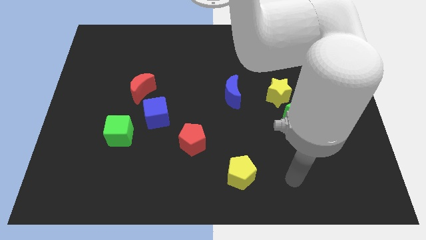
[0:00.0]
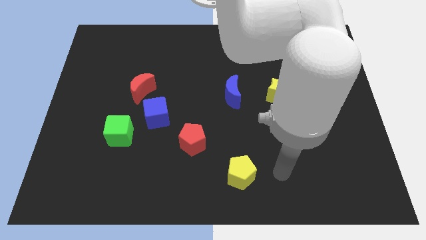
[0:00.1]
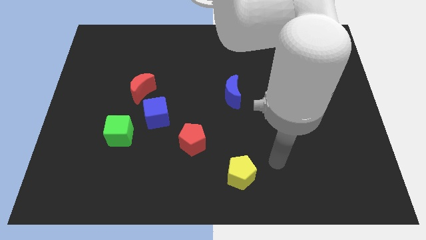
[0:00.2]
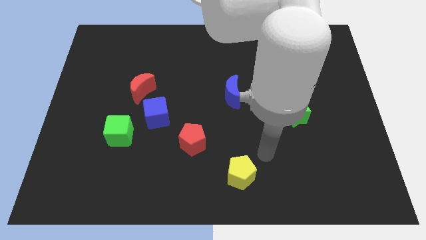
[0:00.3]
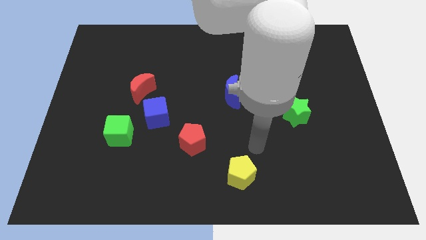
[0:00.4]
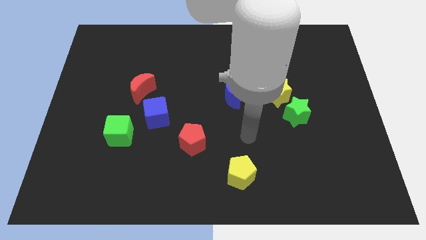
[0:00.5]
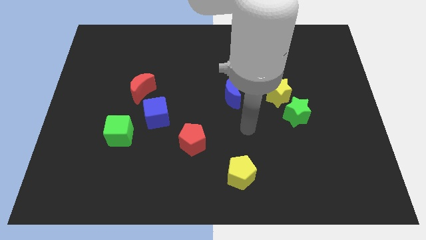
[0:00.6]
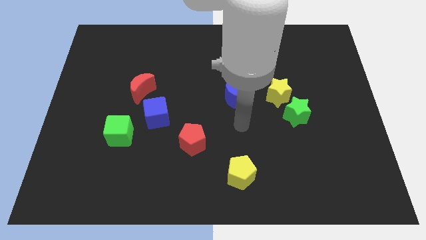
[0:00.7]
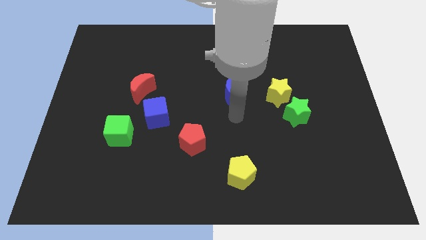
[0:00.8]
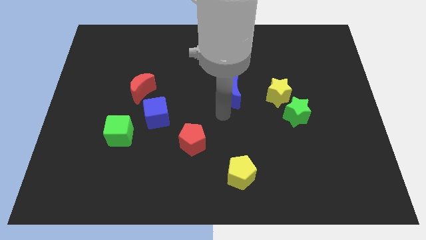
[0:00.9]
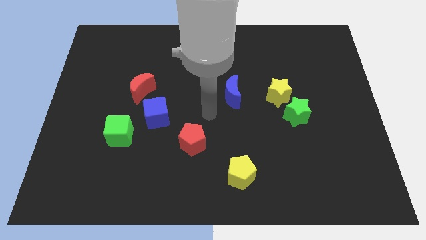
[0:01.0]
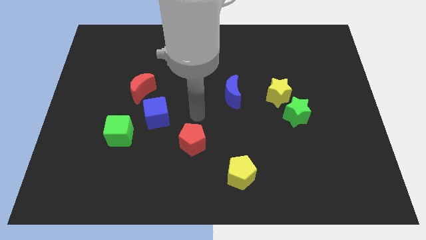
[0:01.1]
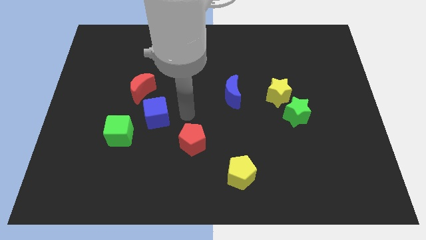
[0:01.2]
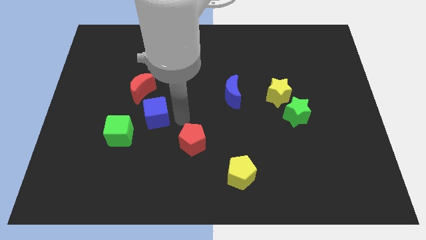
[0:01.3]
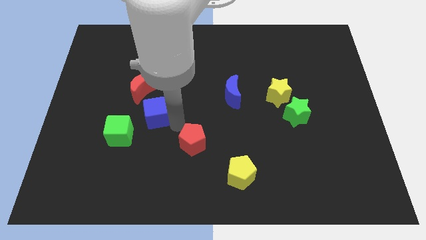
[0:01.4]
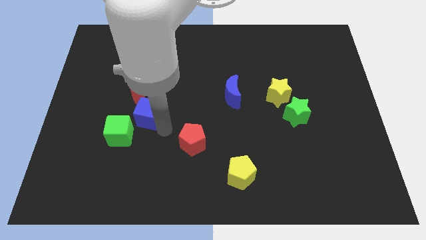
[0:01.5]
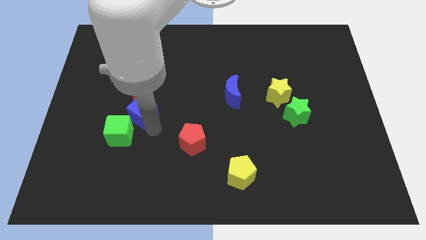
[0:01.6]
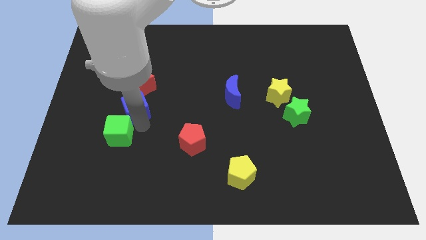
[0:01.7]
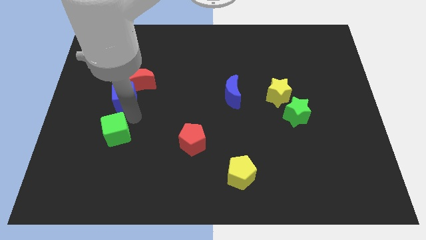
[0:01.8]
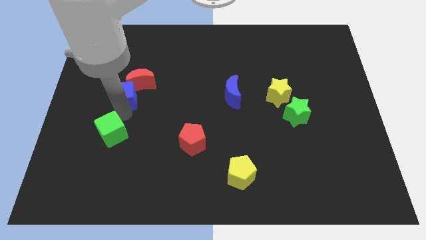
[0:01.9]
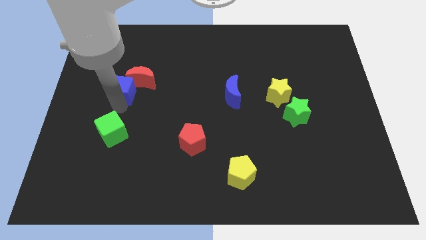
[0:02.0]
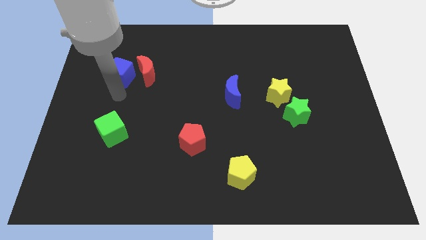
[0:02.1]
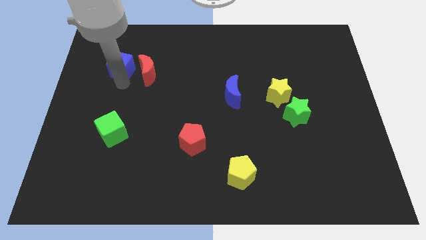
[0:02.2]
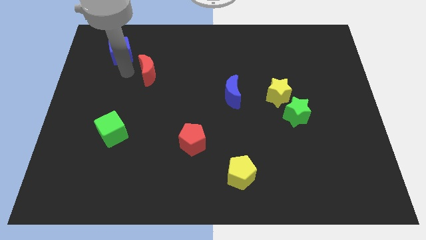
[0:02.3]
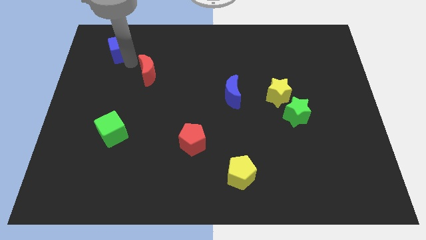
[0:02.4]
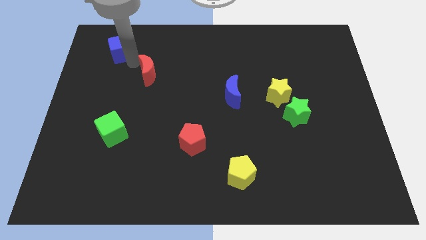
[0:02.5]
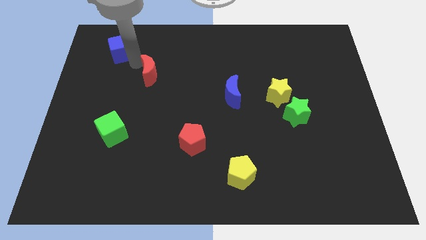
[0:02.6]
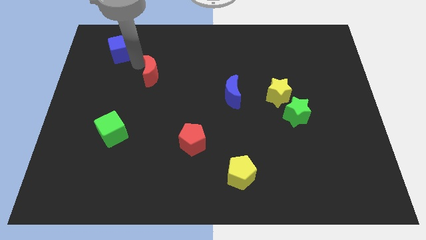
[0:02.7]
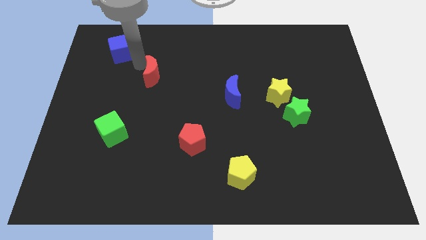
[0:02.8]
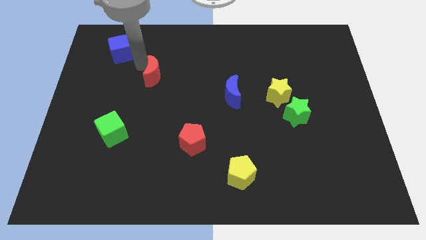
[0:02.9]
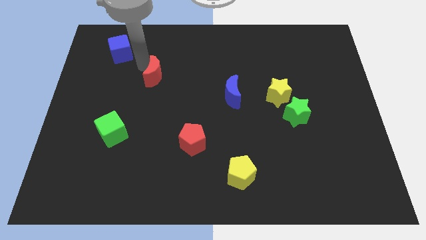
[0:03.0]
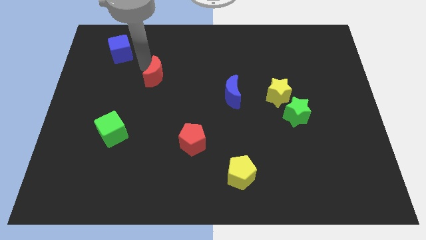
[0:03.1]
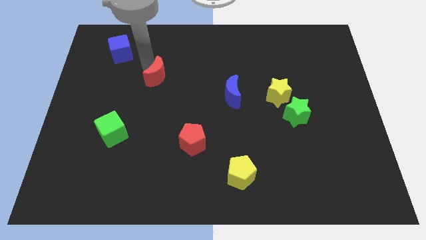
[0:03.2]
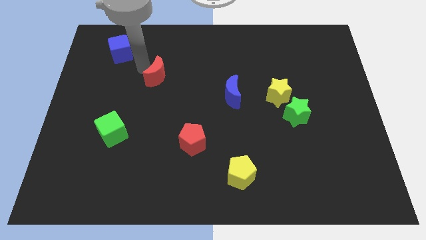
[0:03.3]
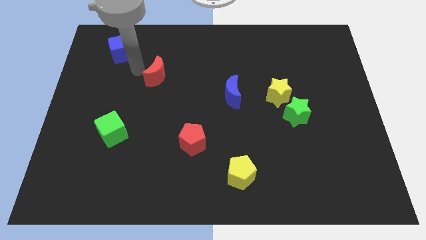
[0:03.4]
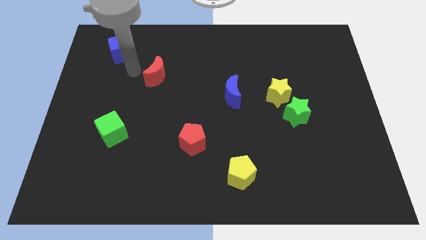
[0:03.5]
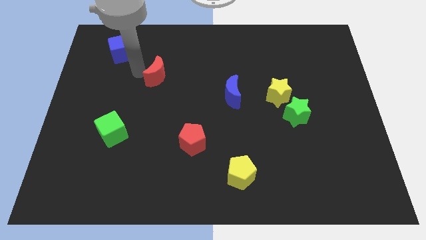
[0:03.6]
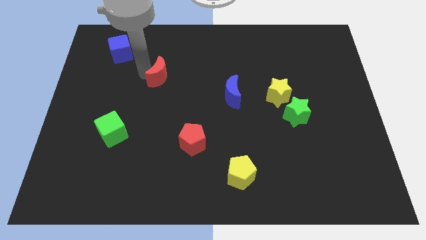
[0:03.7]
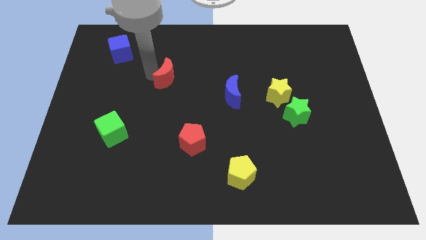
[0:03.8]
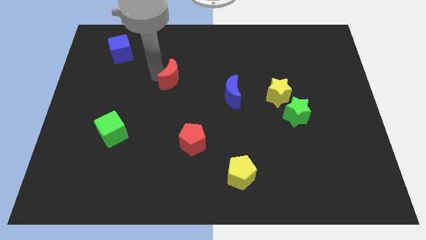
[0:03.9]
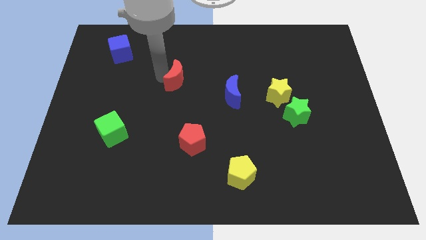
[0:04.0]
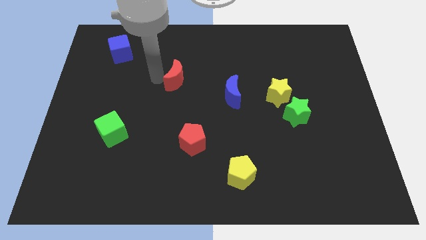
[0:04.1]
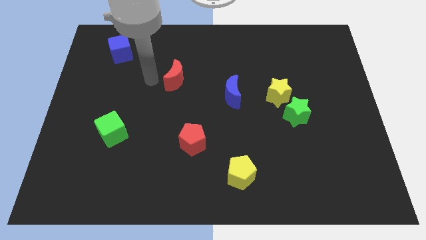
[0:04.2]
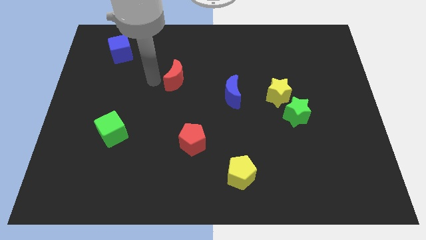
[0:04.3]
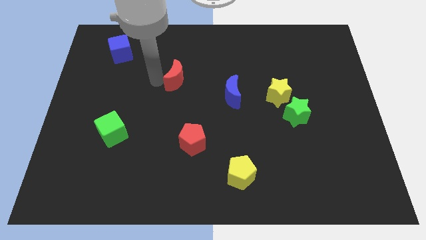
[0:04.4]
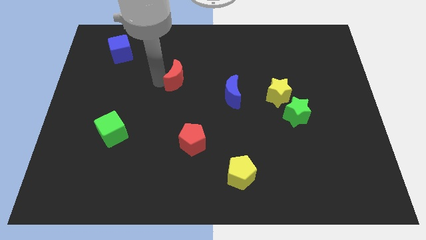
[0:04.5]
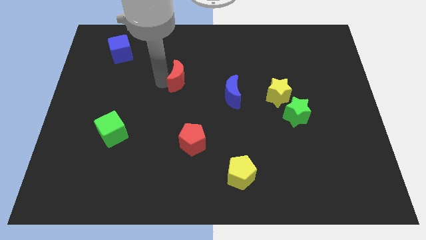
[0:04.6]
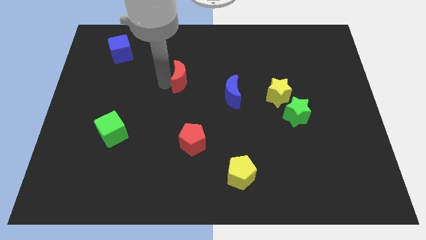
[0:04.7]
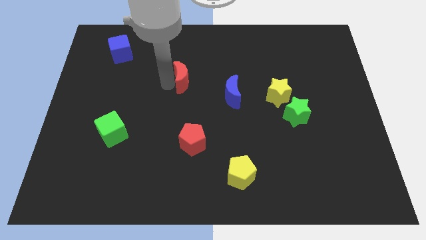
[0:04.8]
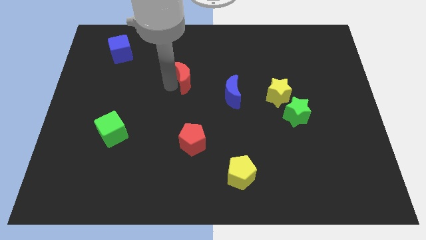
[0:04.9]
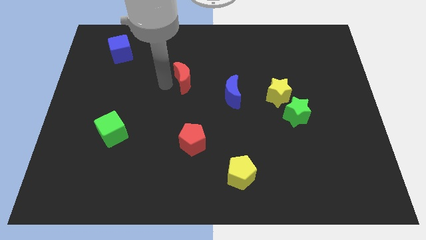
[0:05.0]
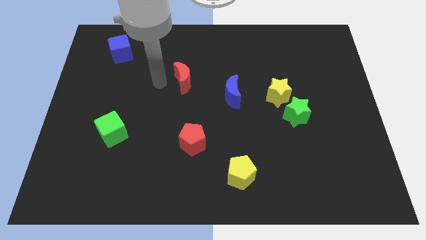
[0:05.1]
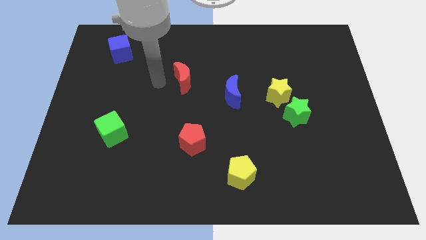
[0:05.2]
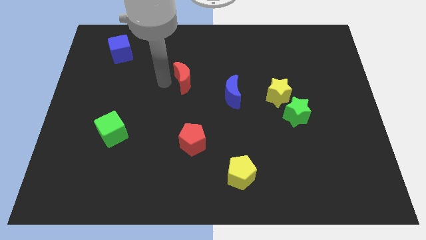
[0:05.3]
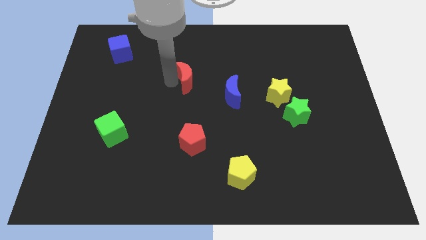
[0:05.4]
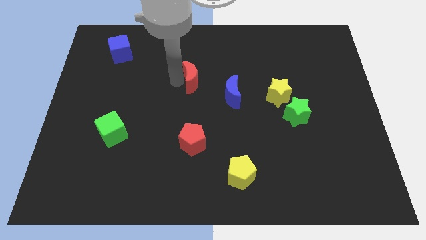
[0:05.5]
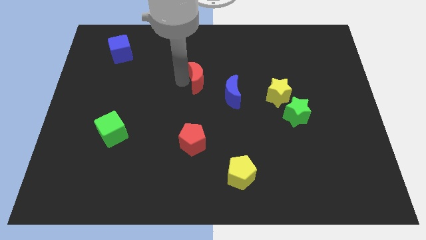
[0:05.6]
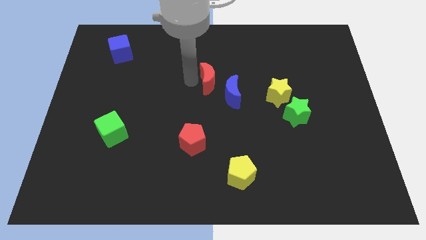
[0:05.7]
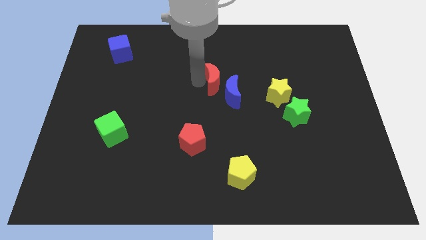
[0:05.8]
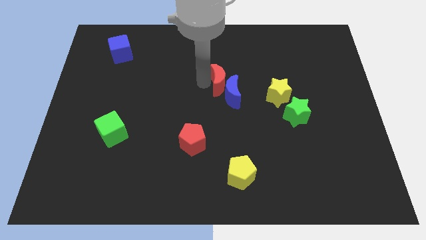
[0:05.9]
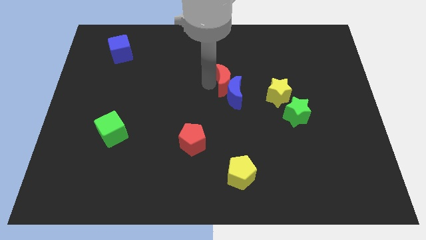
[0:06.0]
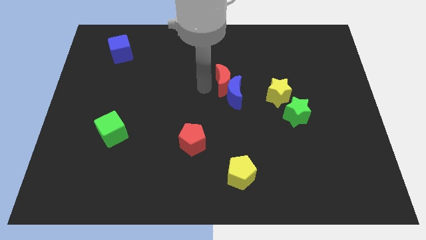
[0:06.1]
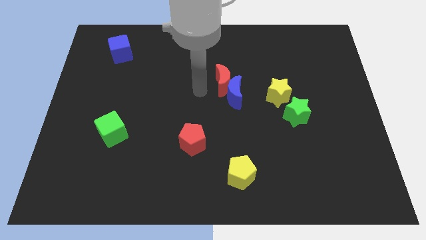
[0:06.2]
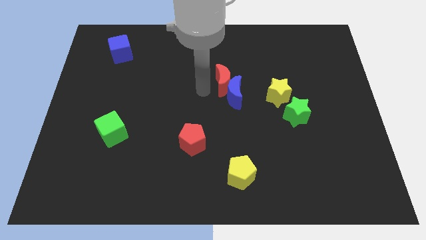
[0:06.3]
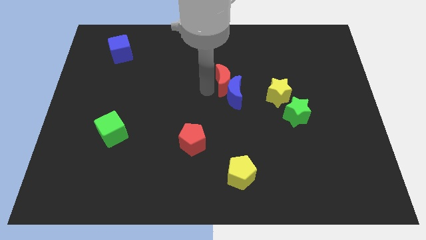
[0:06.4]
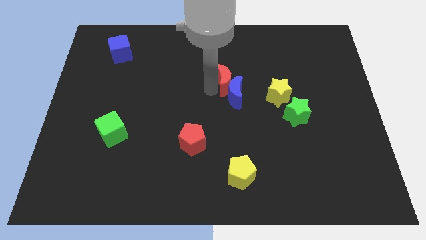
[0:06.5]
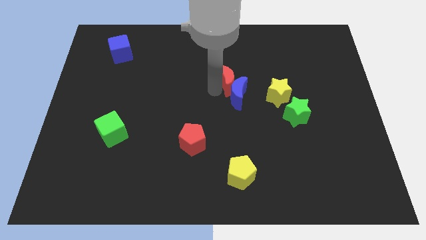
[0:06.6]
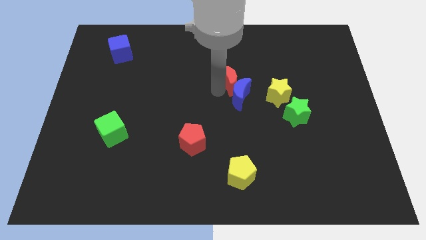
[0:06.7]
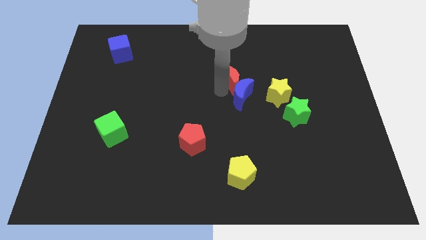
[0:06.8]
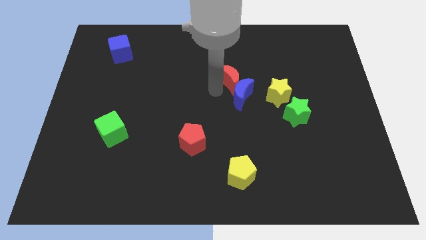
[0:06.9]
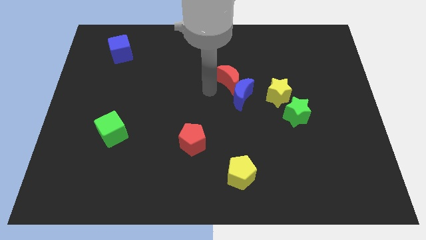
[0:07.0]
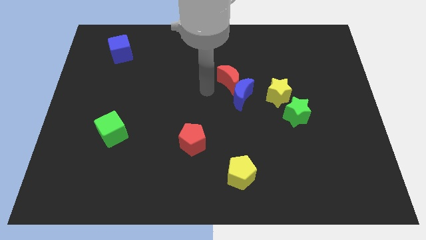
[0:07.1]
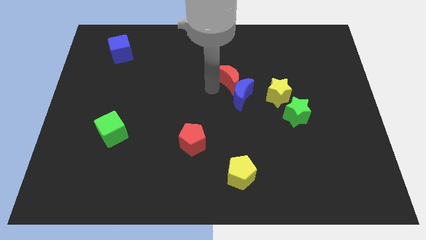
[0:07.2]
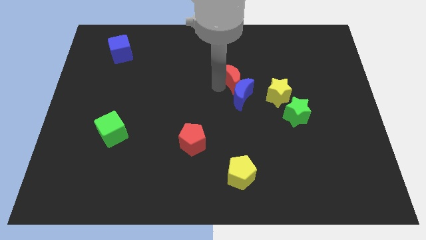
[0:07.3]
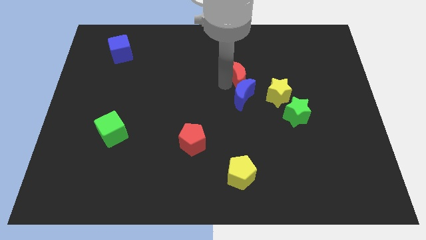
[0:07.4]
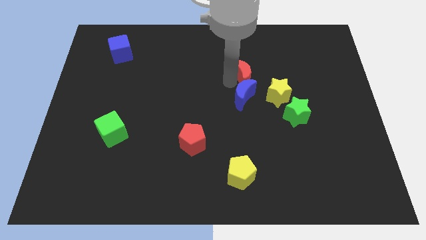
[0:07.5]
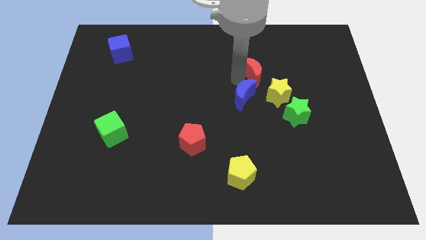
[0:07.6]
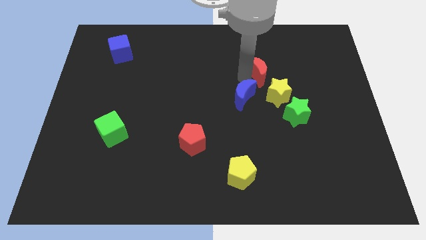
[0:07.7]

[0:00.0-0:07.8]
push the red moon to the top side of the yellow star
